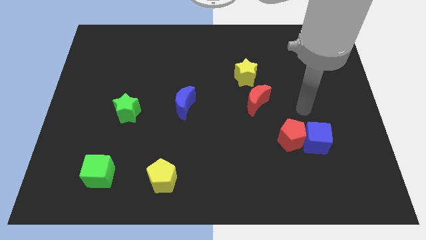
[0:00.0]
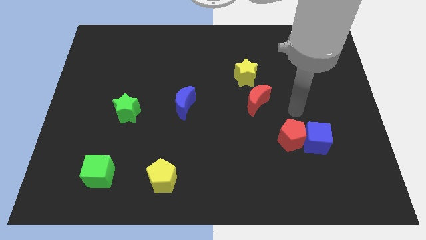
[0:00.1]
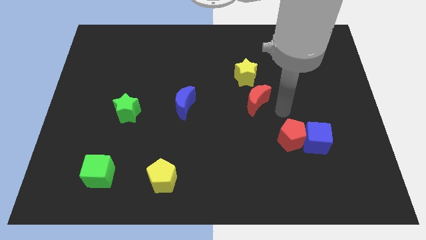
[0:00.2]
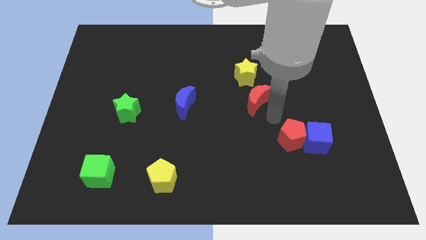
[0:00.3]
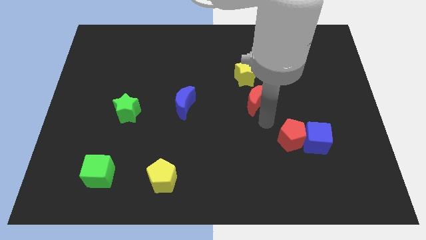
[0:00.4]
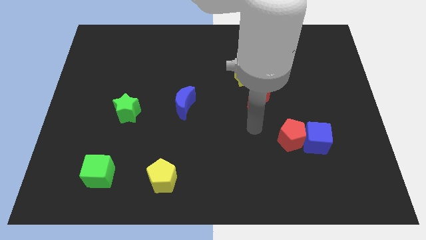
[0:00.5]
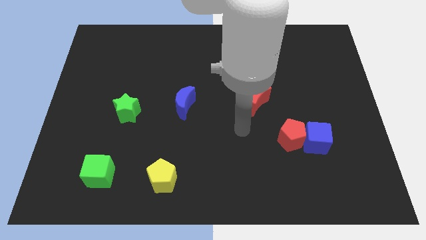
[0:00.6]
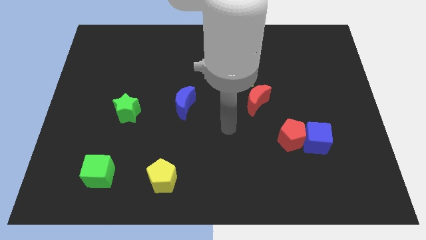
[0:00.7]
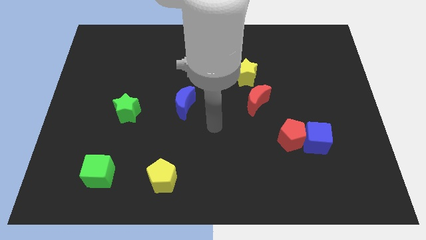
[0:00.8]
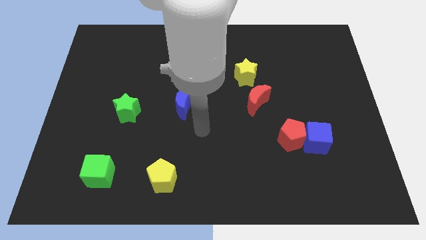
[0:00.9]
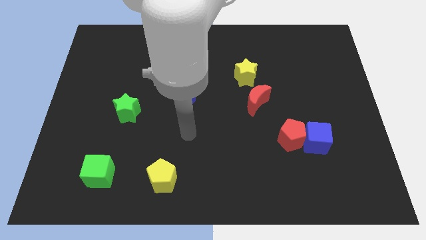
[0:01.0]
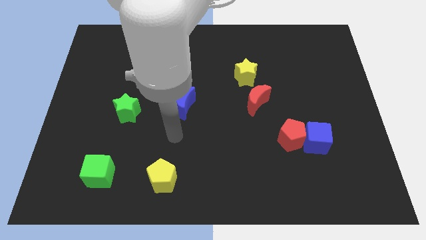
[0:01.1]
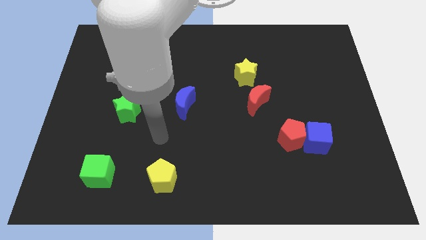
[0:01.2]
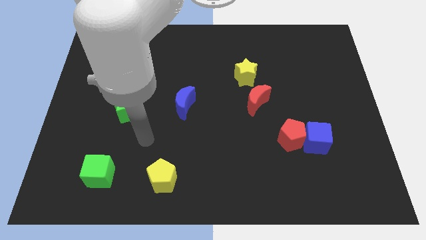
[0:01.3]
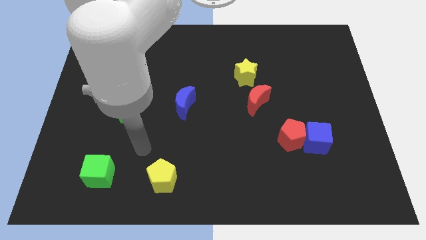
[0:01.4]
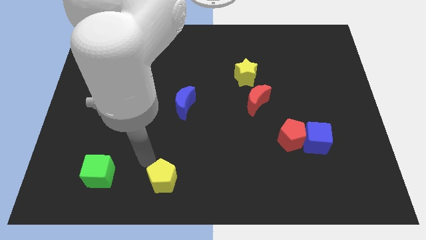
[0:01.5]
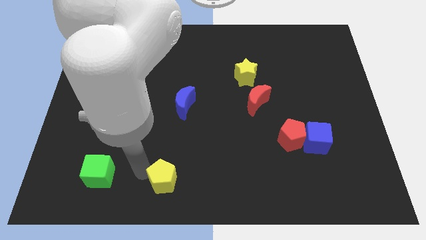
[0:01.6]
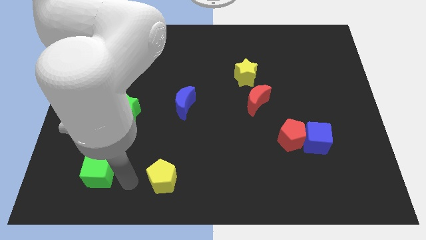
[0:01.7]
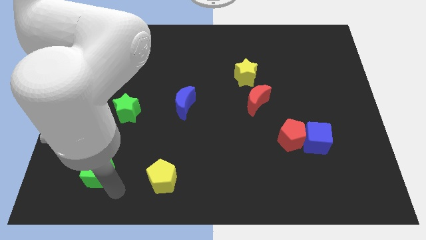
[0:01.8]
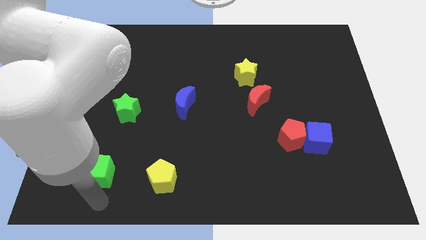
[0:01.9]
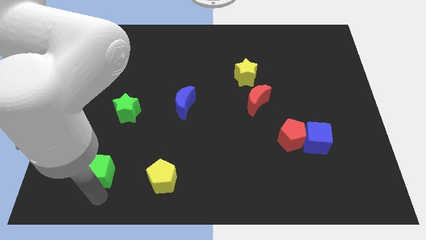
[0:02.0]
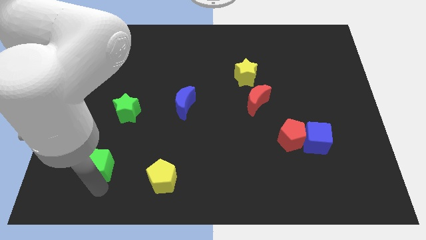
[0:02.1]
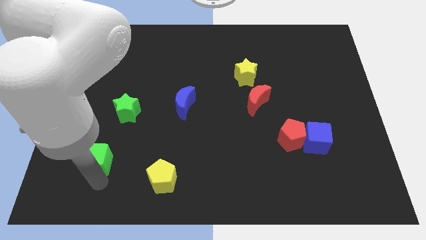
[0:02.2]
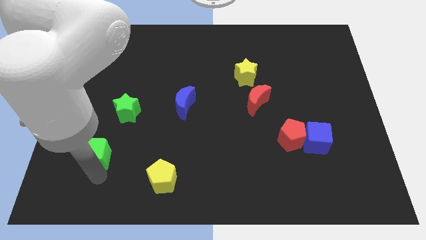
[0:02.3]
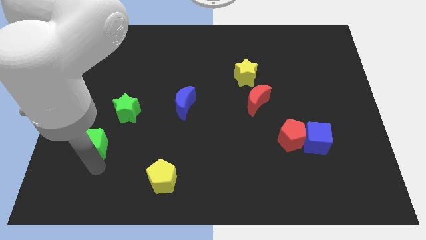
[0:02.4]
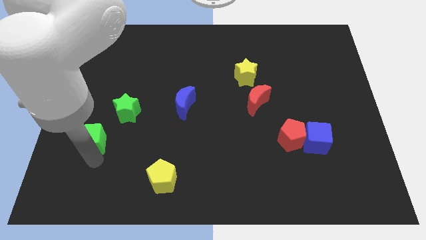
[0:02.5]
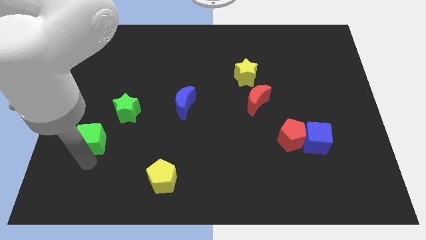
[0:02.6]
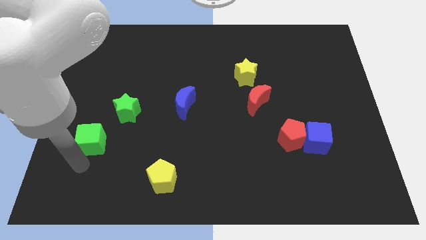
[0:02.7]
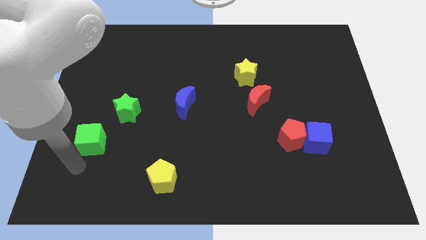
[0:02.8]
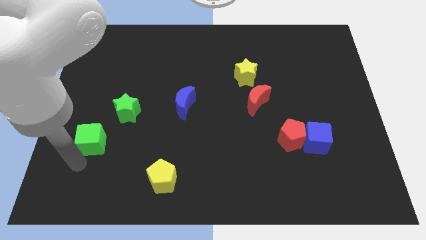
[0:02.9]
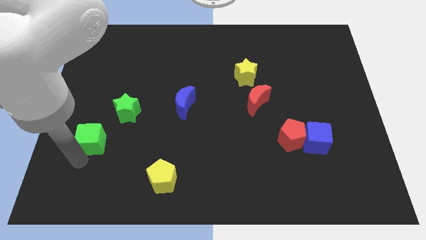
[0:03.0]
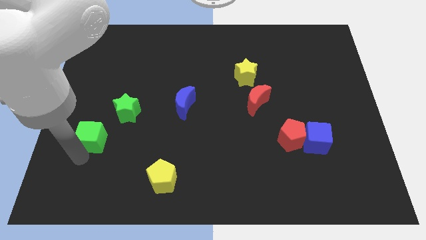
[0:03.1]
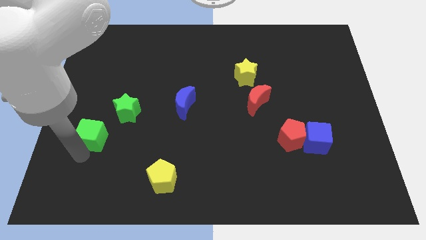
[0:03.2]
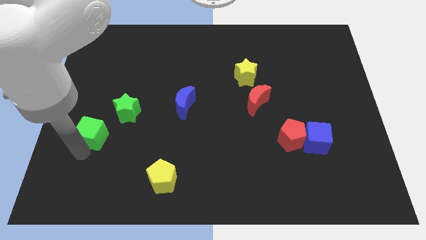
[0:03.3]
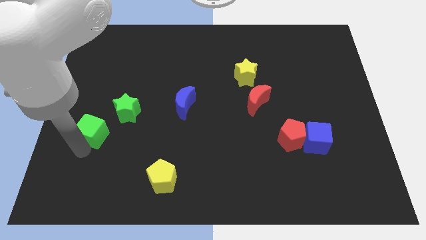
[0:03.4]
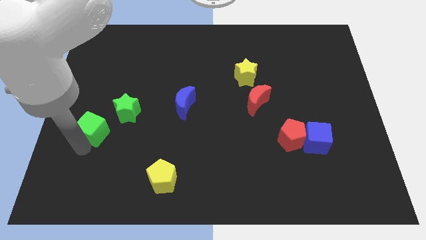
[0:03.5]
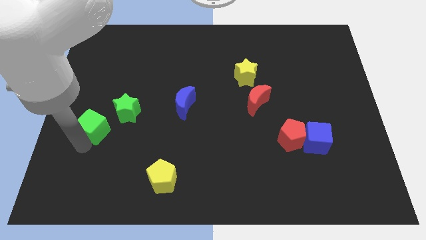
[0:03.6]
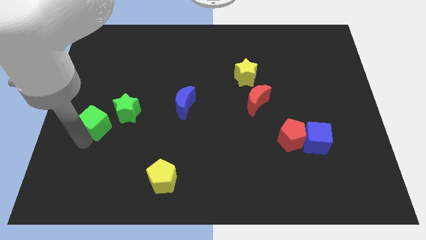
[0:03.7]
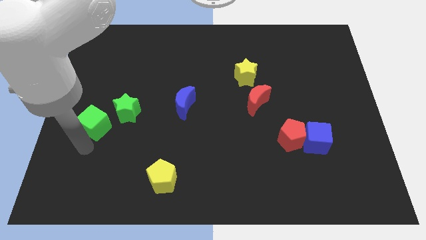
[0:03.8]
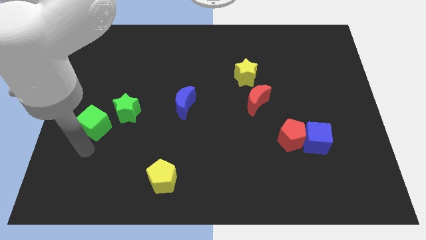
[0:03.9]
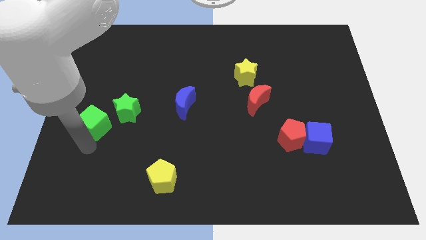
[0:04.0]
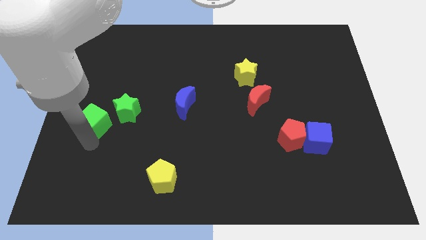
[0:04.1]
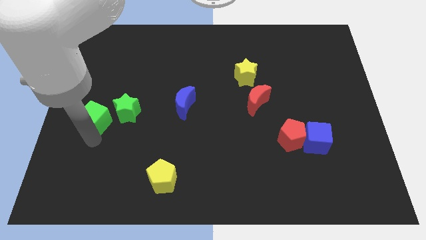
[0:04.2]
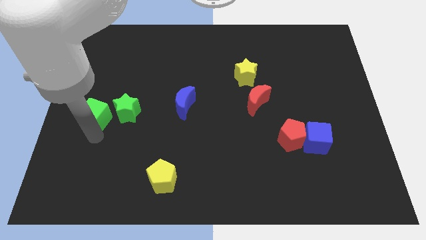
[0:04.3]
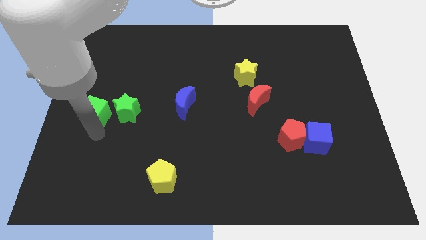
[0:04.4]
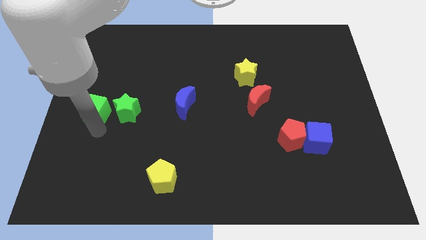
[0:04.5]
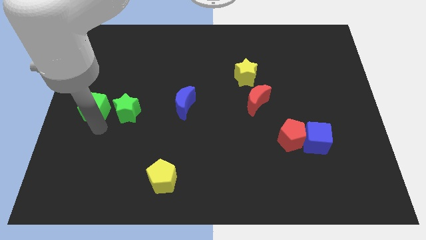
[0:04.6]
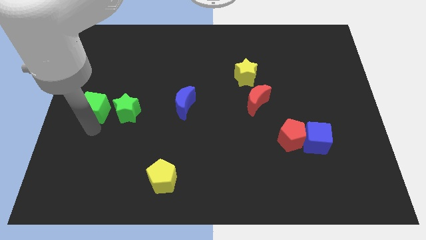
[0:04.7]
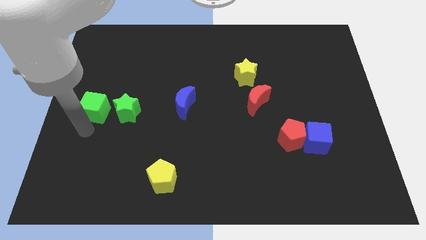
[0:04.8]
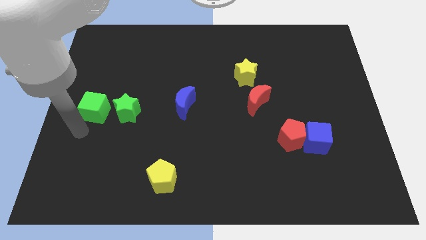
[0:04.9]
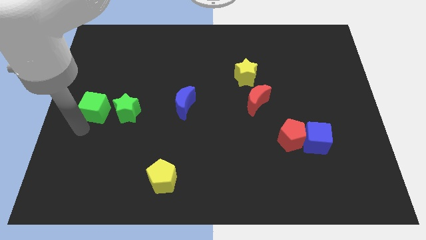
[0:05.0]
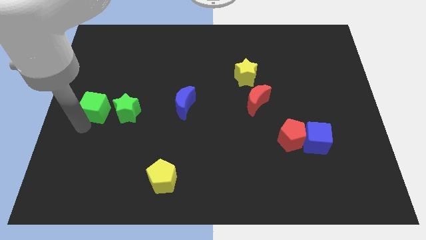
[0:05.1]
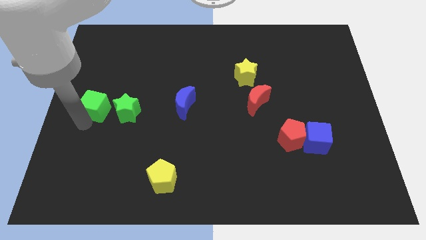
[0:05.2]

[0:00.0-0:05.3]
slide the green cube diagonally up and to the left of the green star

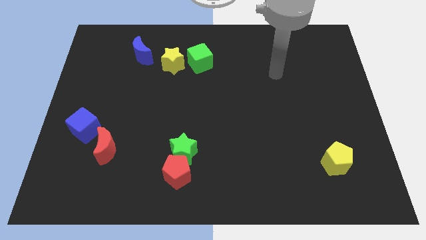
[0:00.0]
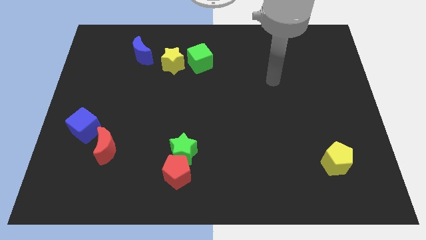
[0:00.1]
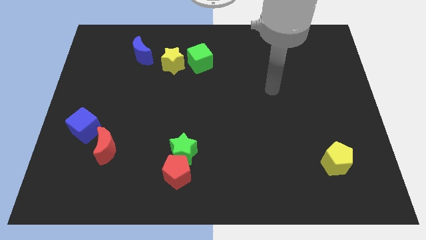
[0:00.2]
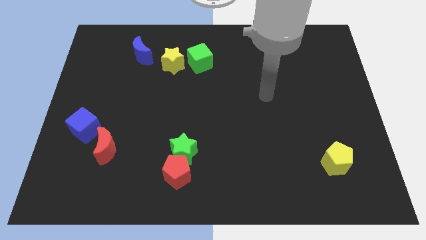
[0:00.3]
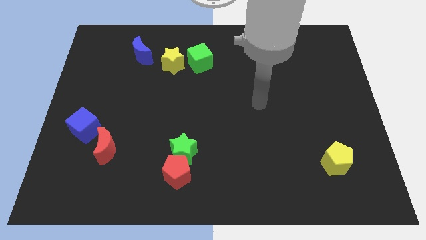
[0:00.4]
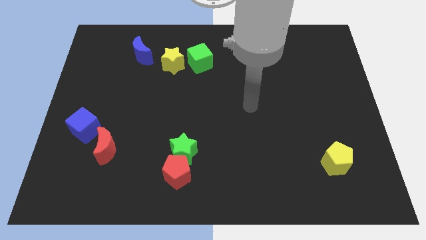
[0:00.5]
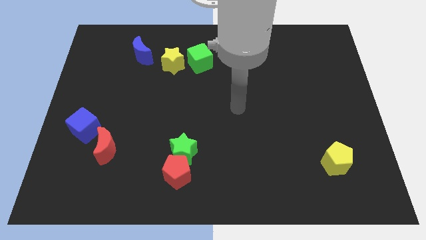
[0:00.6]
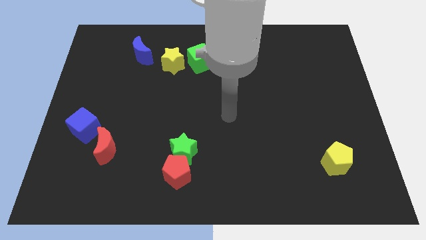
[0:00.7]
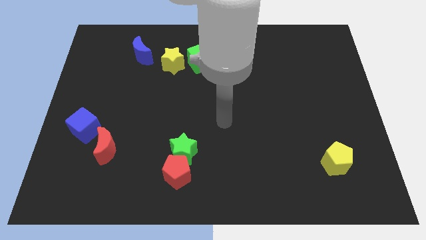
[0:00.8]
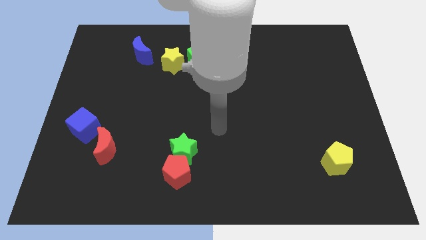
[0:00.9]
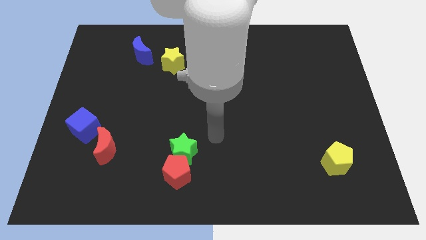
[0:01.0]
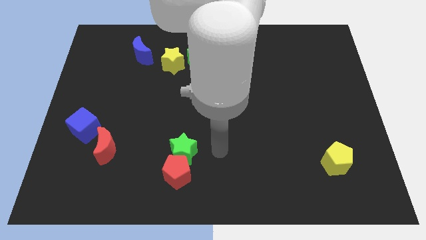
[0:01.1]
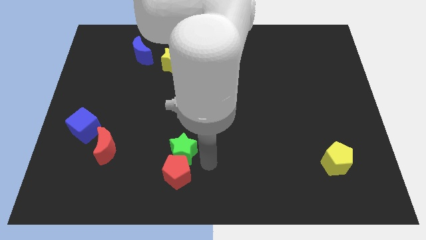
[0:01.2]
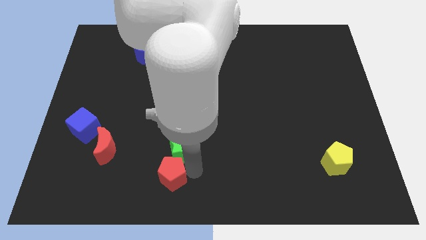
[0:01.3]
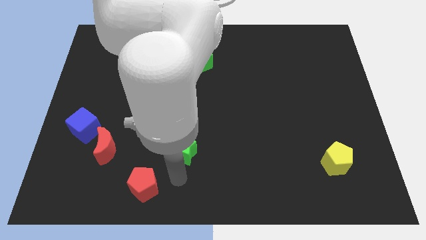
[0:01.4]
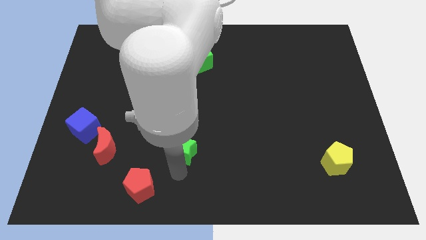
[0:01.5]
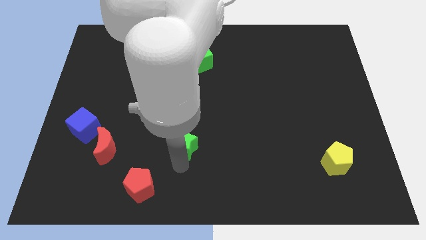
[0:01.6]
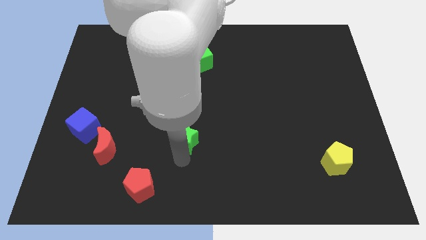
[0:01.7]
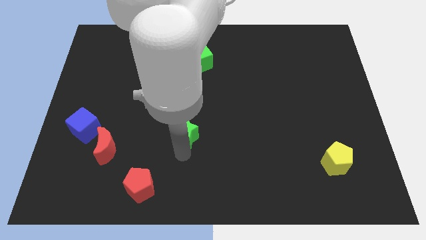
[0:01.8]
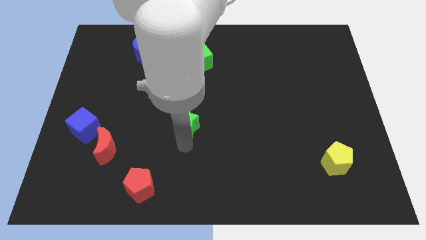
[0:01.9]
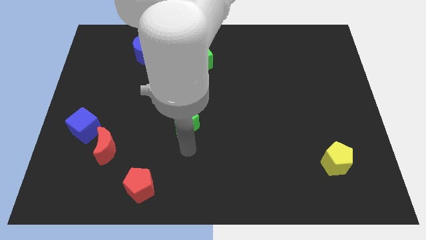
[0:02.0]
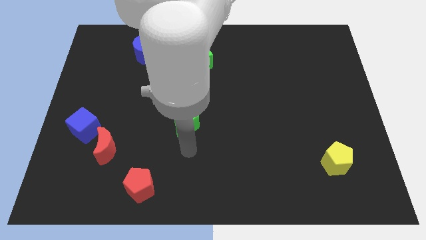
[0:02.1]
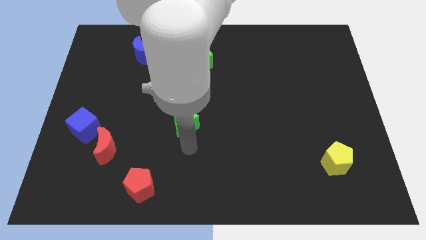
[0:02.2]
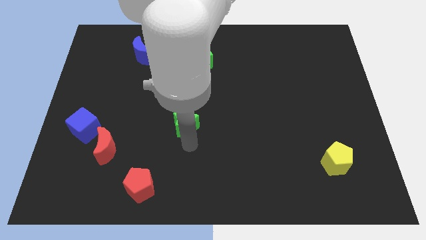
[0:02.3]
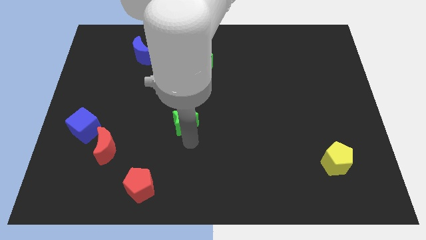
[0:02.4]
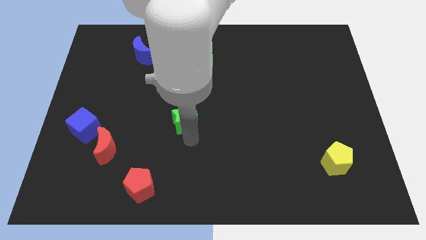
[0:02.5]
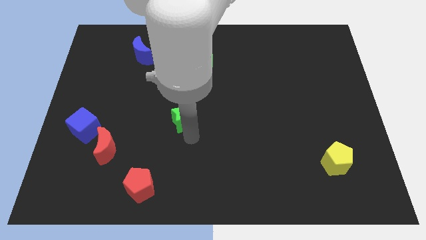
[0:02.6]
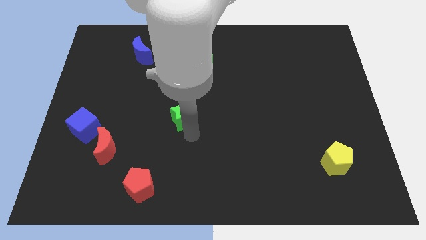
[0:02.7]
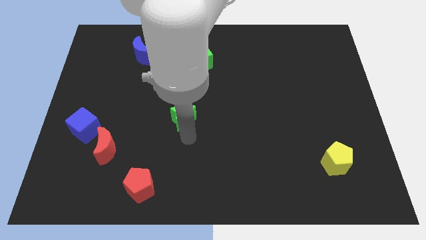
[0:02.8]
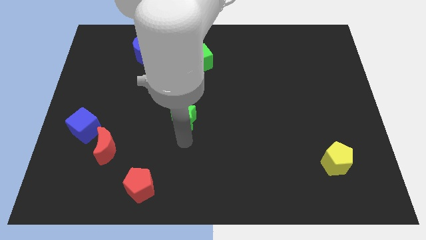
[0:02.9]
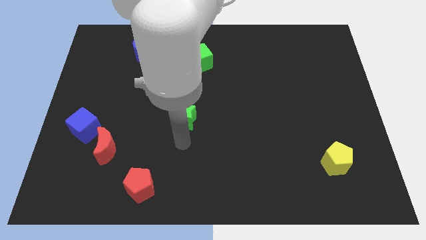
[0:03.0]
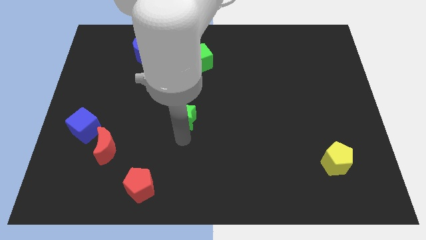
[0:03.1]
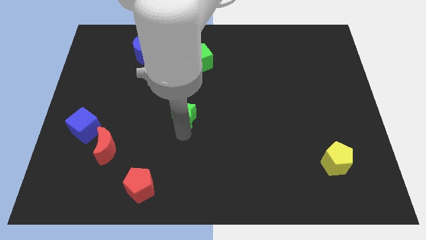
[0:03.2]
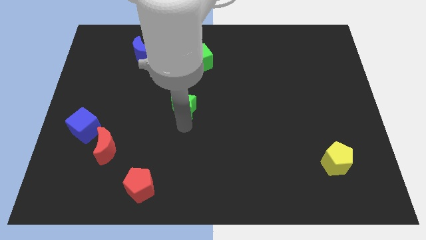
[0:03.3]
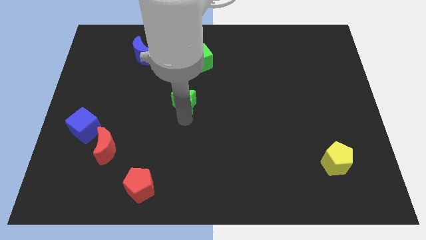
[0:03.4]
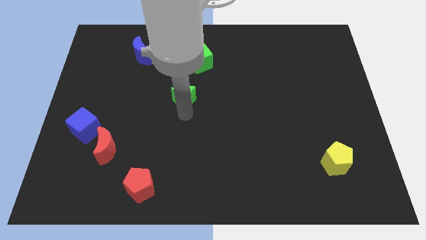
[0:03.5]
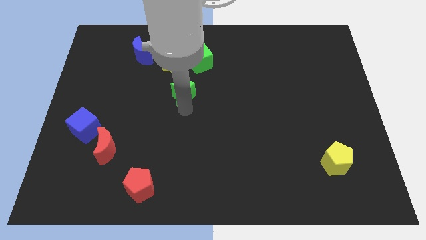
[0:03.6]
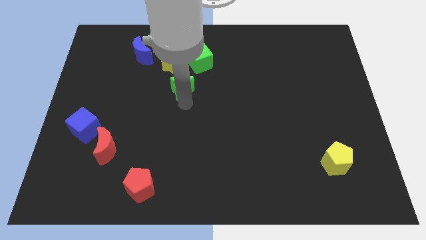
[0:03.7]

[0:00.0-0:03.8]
slide the green star to the bottom left side of the green cube
